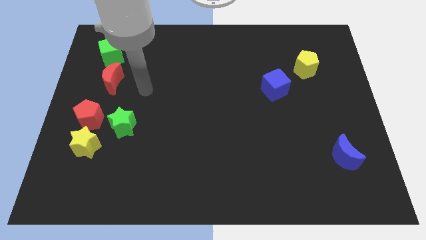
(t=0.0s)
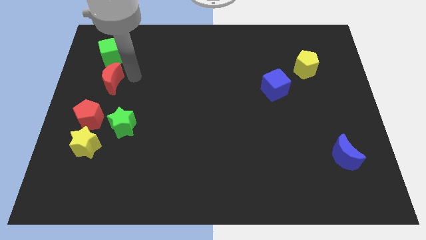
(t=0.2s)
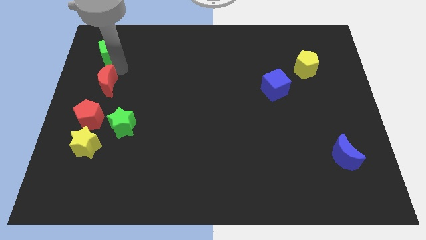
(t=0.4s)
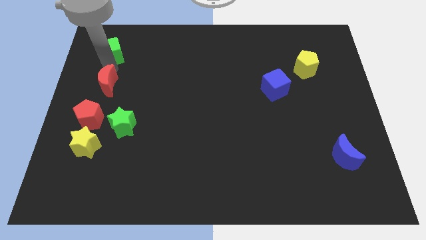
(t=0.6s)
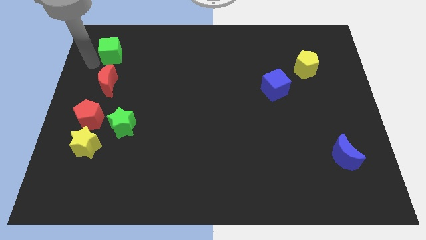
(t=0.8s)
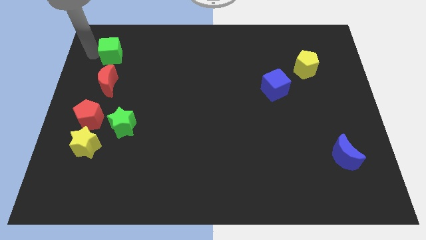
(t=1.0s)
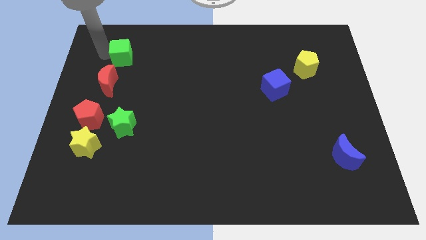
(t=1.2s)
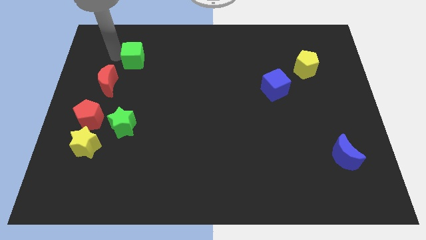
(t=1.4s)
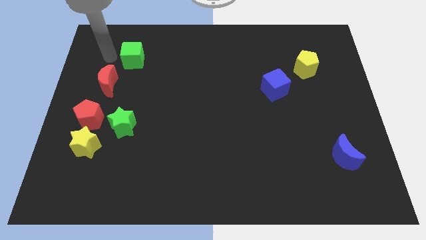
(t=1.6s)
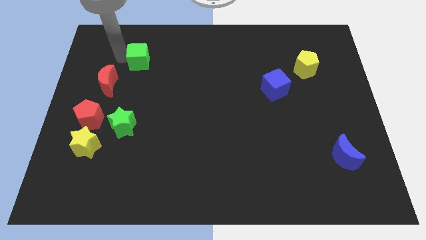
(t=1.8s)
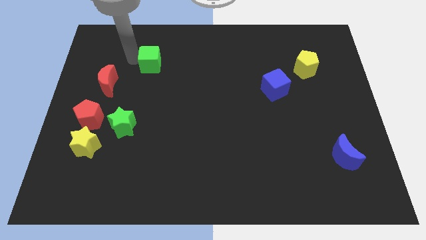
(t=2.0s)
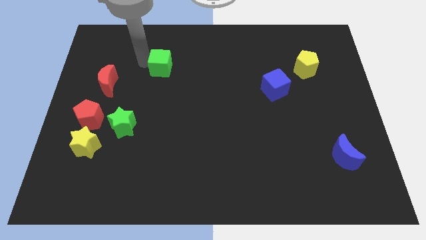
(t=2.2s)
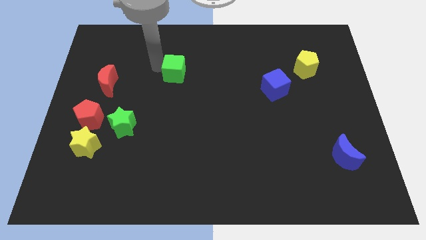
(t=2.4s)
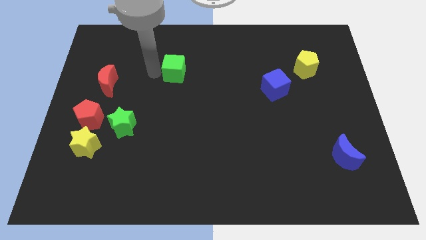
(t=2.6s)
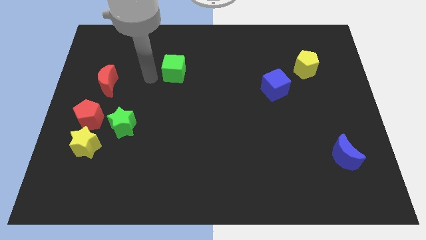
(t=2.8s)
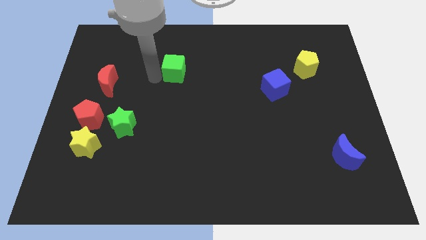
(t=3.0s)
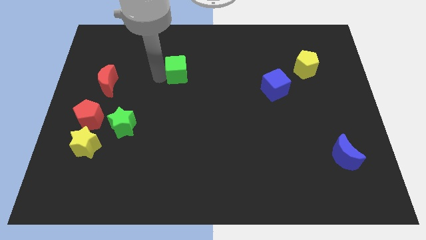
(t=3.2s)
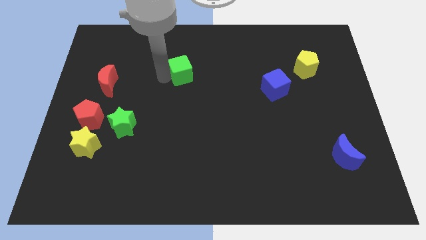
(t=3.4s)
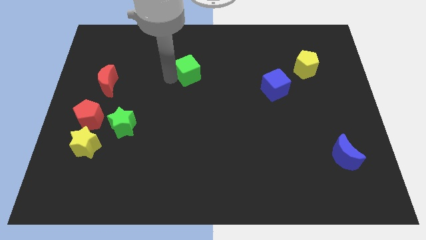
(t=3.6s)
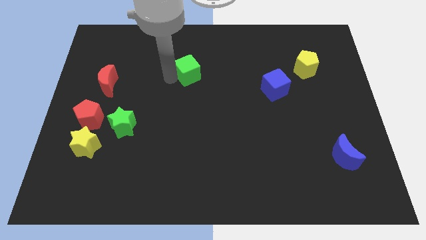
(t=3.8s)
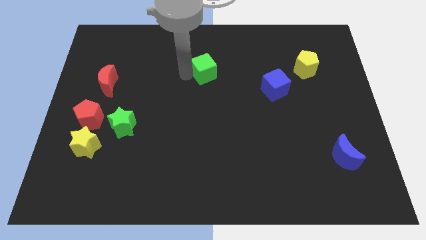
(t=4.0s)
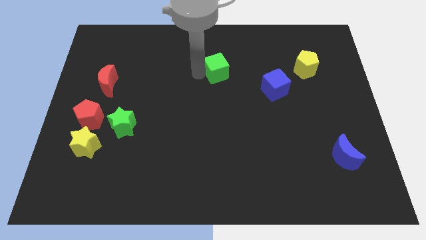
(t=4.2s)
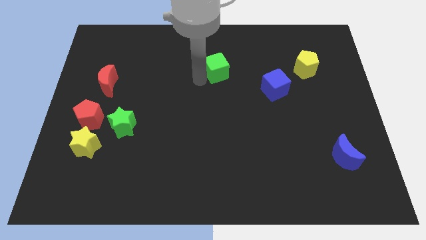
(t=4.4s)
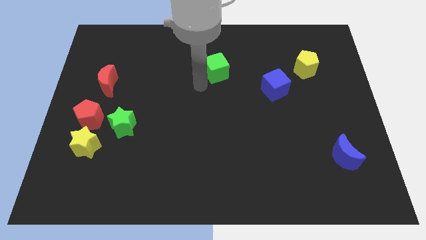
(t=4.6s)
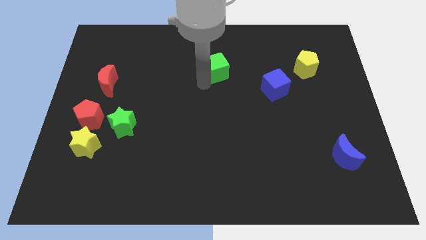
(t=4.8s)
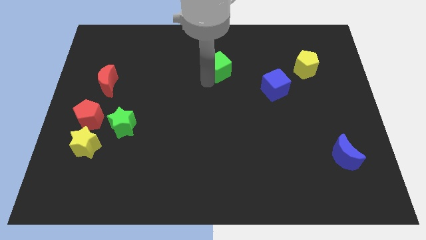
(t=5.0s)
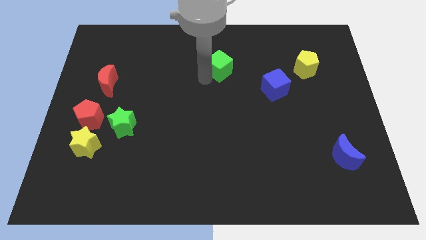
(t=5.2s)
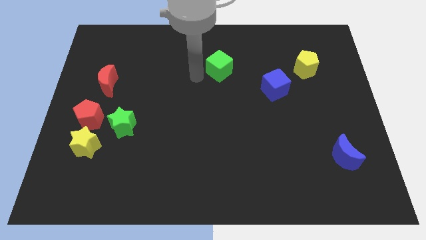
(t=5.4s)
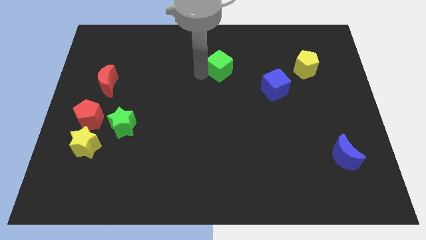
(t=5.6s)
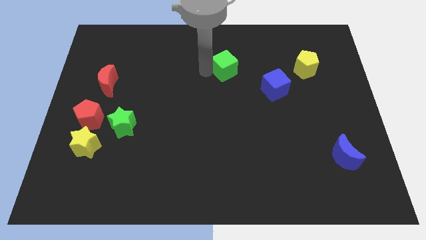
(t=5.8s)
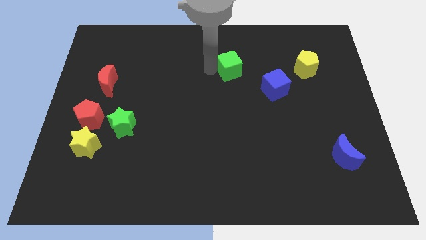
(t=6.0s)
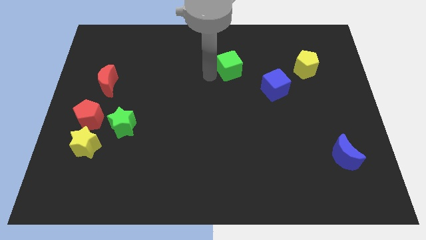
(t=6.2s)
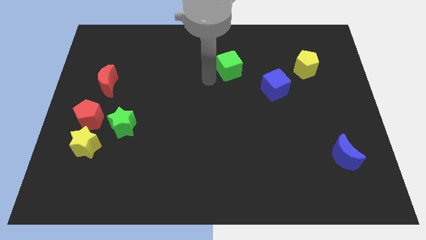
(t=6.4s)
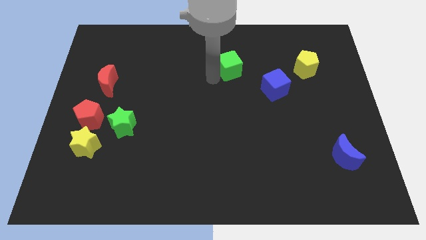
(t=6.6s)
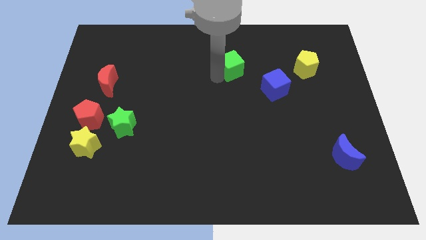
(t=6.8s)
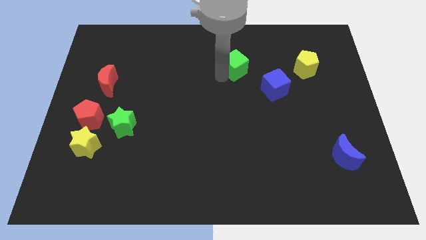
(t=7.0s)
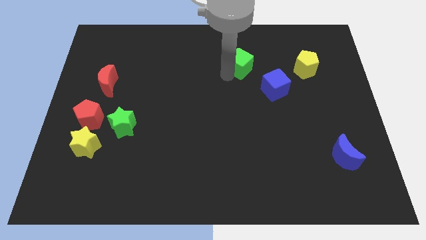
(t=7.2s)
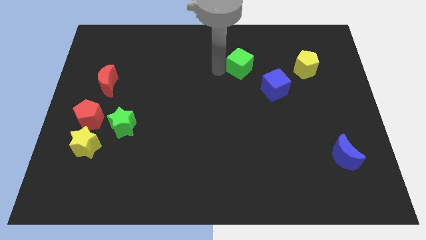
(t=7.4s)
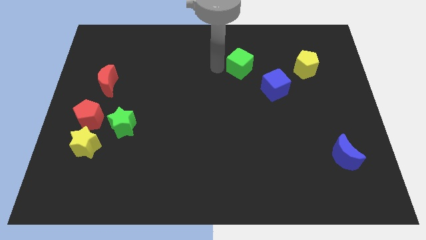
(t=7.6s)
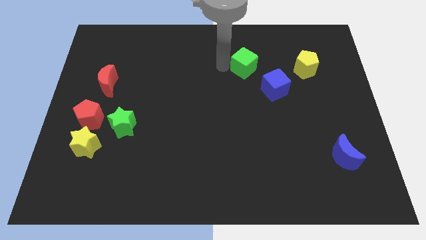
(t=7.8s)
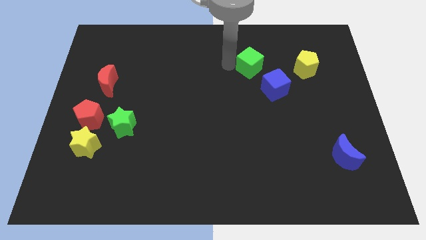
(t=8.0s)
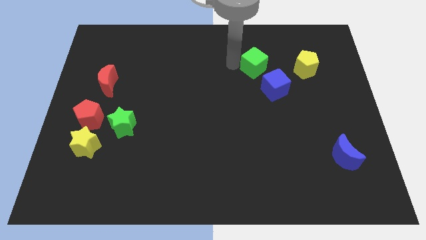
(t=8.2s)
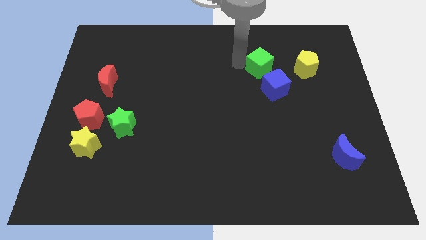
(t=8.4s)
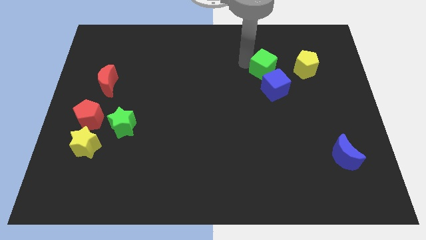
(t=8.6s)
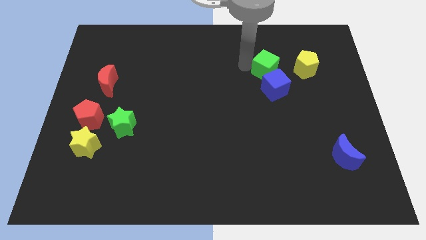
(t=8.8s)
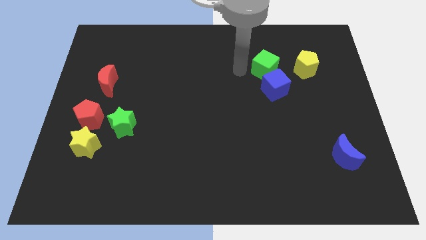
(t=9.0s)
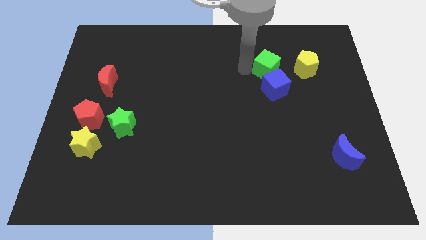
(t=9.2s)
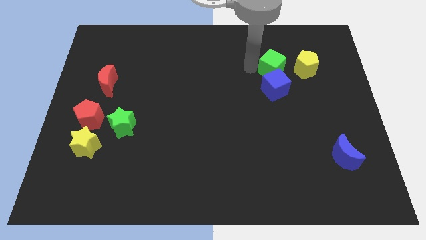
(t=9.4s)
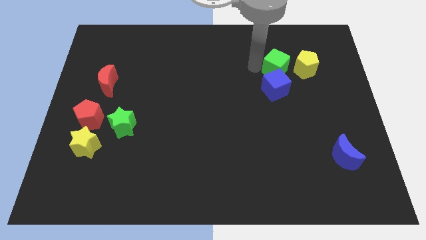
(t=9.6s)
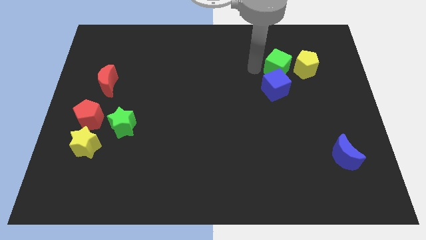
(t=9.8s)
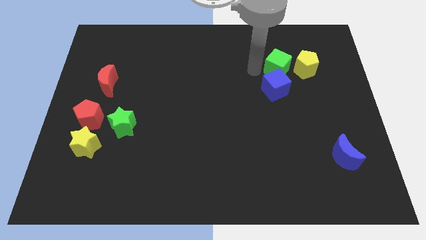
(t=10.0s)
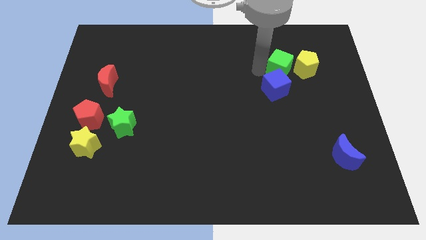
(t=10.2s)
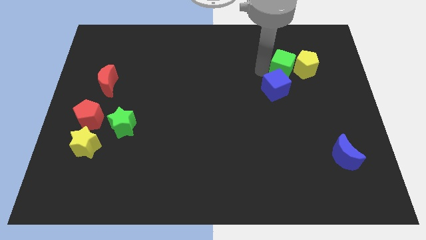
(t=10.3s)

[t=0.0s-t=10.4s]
put the green cube next to the yellow pentagon

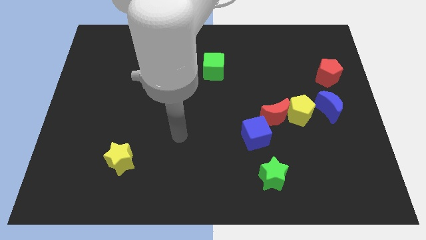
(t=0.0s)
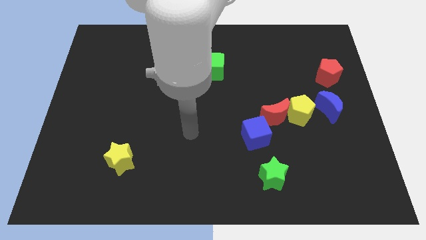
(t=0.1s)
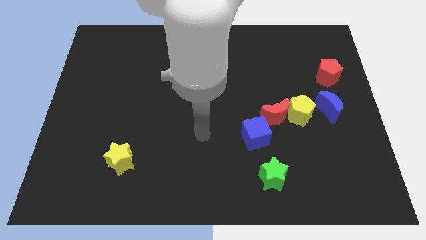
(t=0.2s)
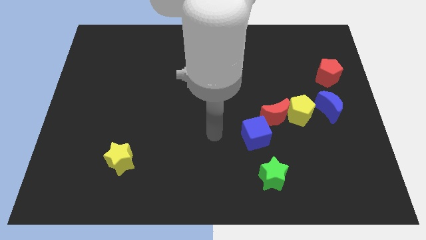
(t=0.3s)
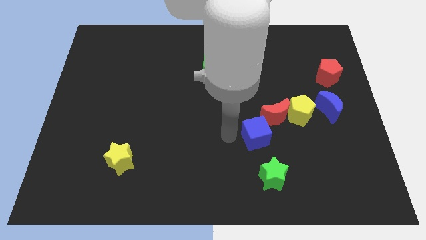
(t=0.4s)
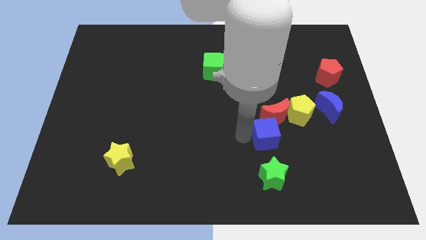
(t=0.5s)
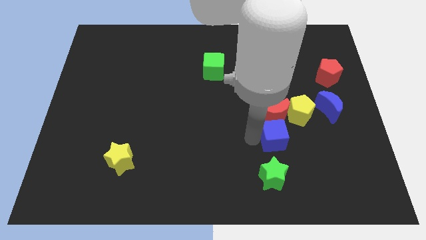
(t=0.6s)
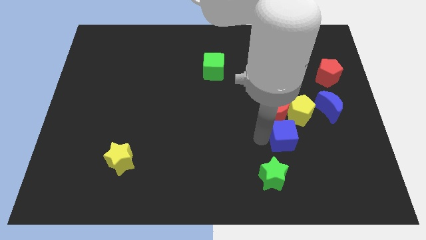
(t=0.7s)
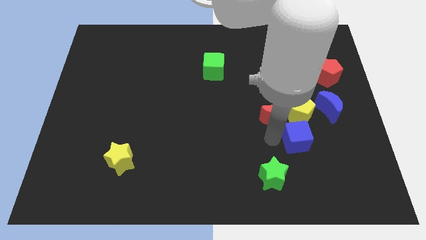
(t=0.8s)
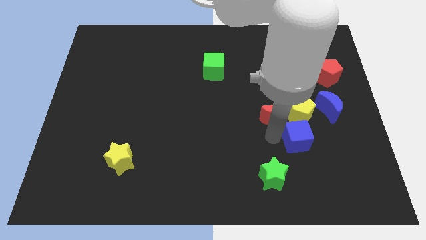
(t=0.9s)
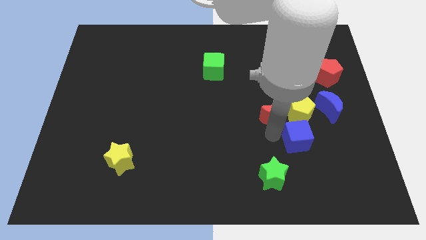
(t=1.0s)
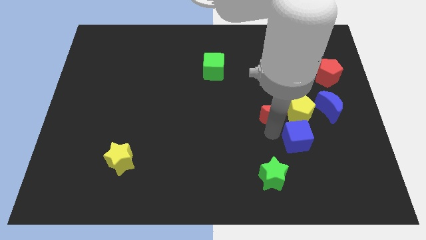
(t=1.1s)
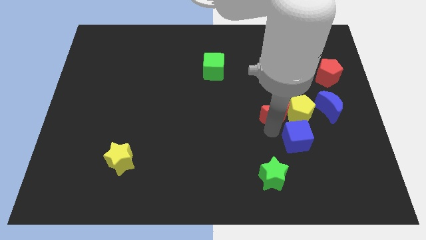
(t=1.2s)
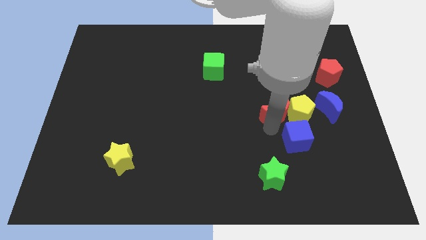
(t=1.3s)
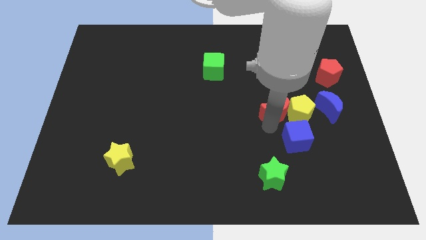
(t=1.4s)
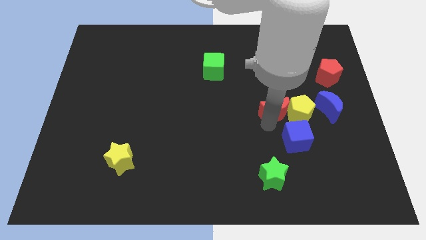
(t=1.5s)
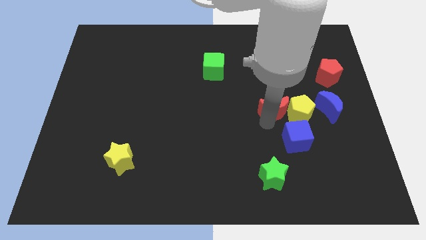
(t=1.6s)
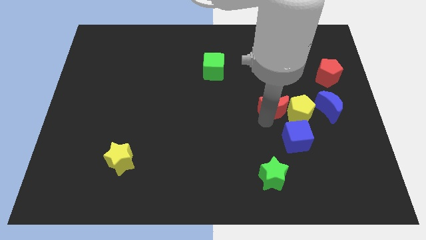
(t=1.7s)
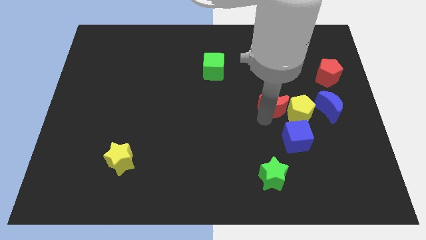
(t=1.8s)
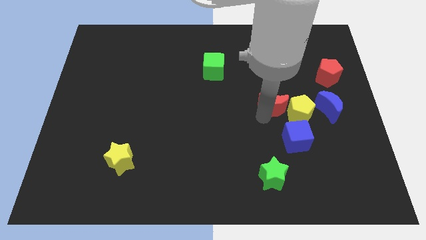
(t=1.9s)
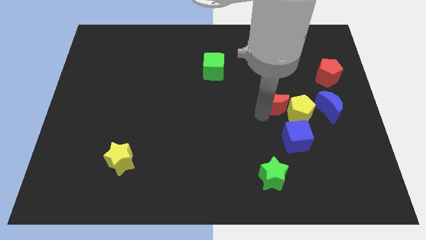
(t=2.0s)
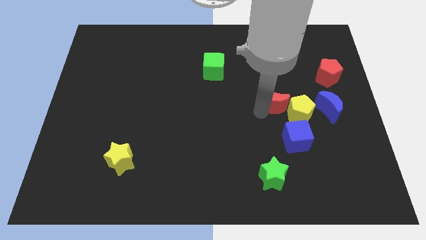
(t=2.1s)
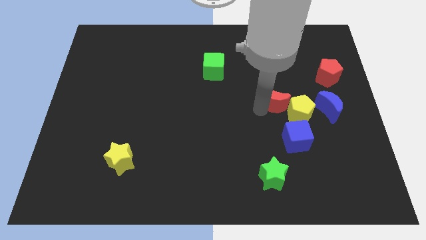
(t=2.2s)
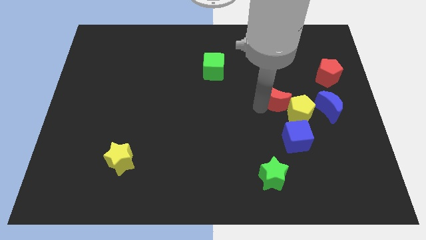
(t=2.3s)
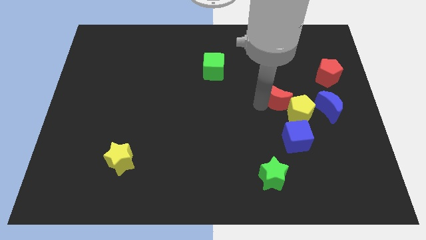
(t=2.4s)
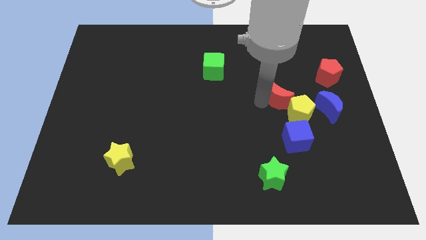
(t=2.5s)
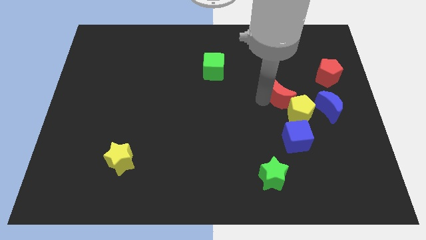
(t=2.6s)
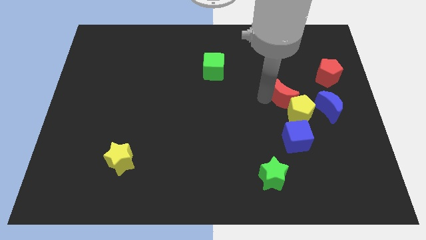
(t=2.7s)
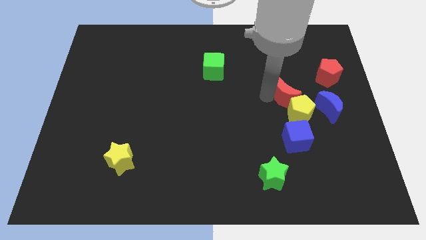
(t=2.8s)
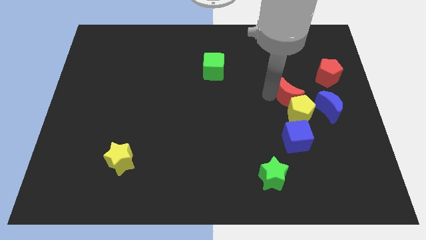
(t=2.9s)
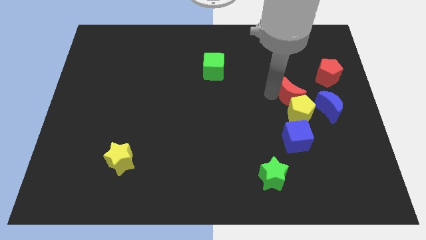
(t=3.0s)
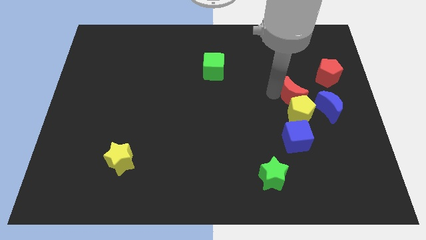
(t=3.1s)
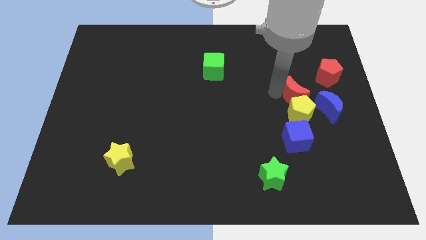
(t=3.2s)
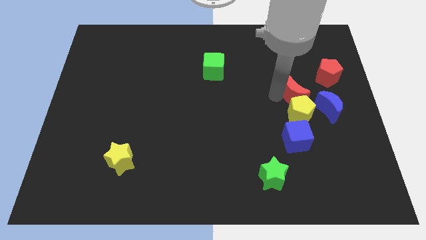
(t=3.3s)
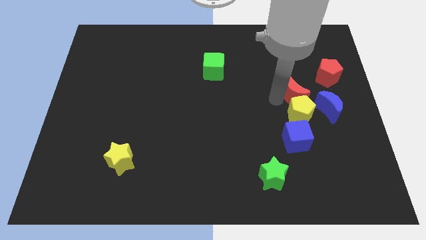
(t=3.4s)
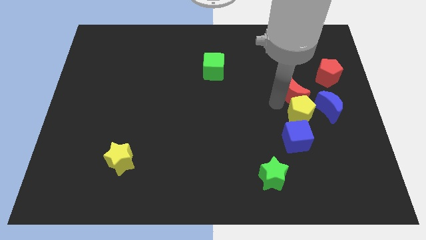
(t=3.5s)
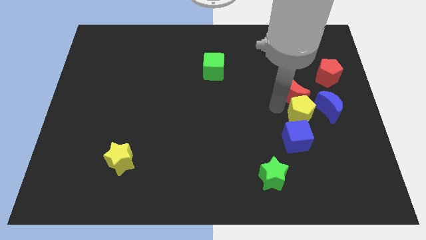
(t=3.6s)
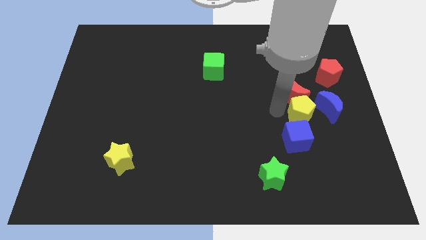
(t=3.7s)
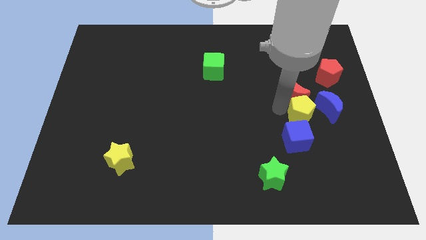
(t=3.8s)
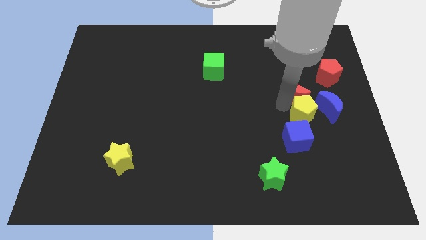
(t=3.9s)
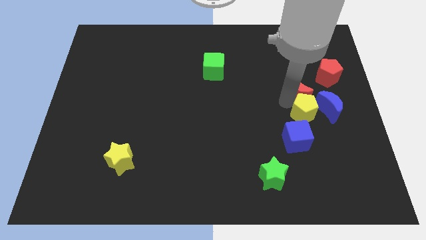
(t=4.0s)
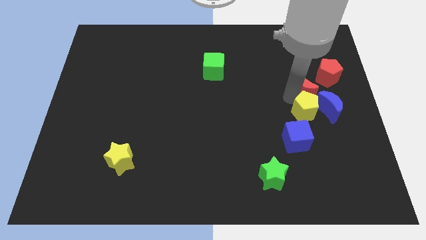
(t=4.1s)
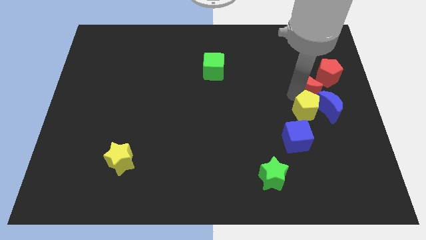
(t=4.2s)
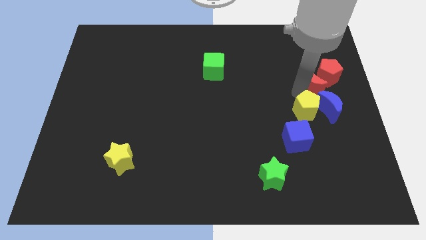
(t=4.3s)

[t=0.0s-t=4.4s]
move the red moon towards the red pentagon
